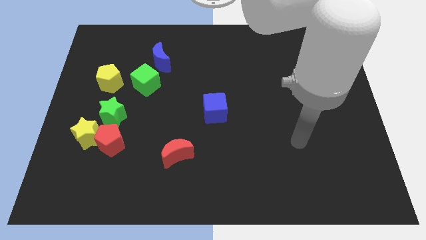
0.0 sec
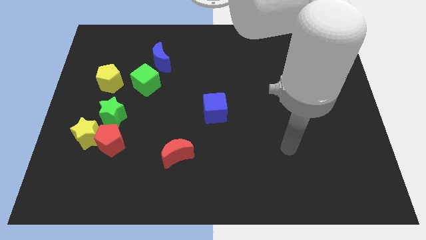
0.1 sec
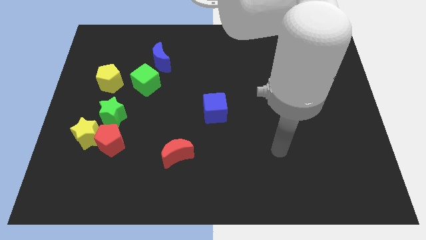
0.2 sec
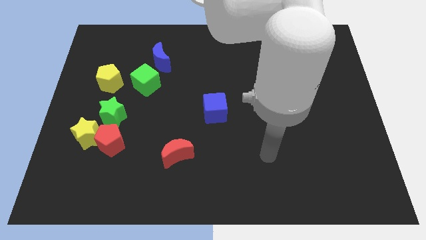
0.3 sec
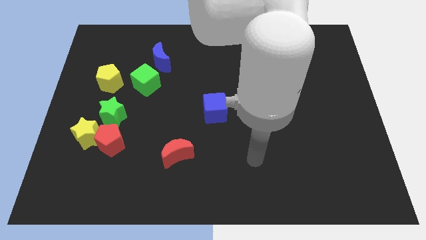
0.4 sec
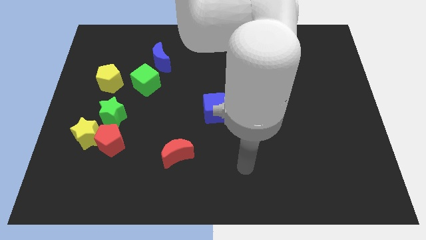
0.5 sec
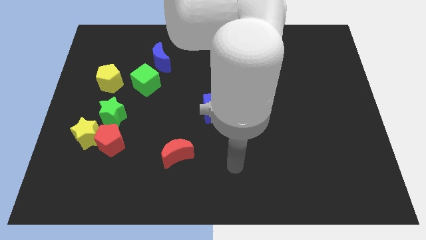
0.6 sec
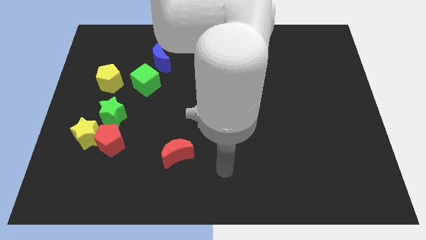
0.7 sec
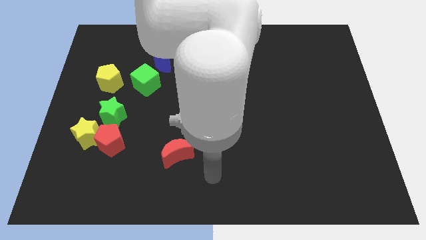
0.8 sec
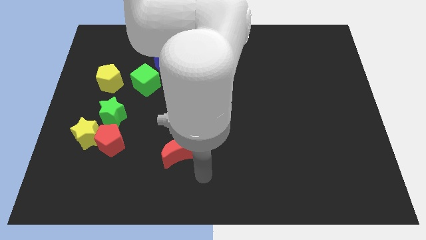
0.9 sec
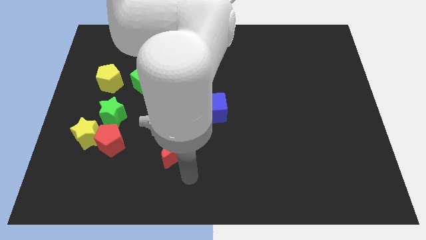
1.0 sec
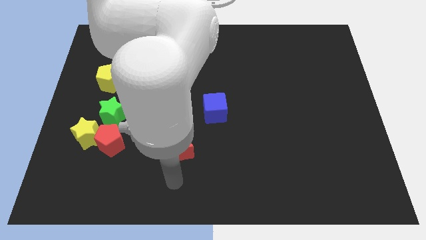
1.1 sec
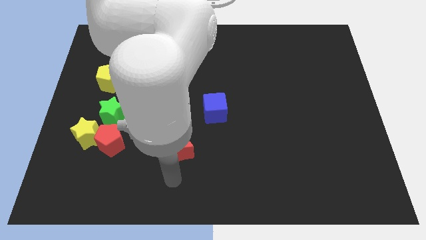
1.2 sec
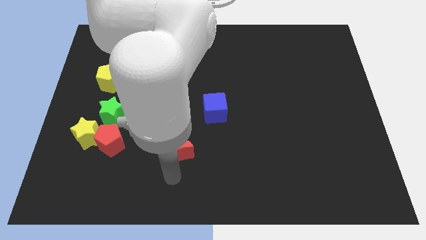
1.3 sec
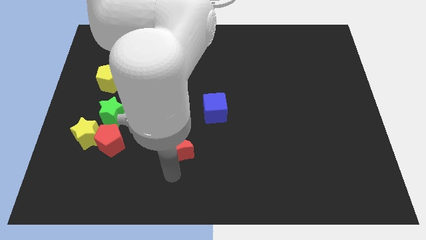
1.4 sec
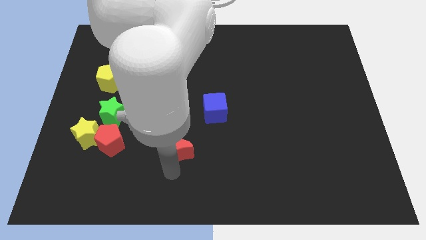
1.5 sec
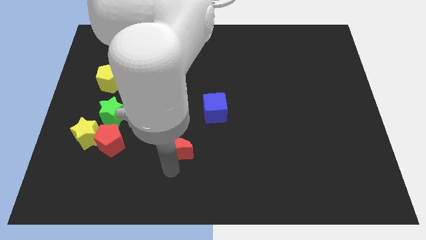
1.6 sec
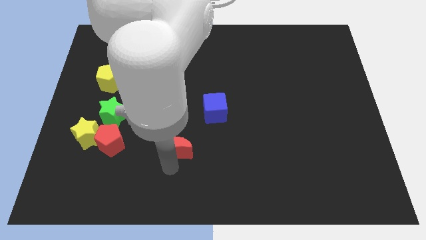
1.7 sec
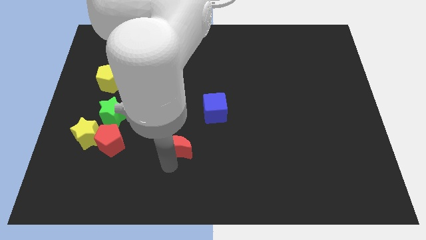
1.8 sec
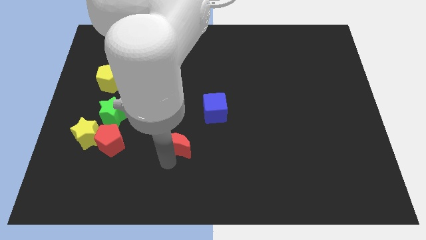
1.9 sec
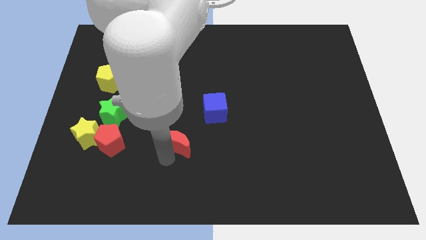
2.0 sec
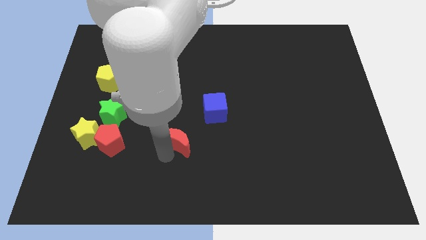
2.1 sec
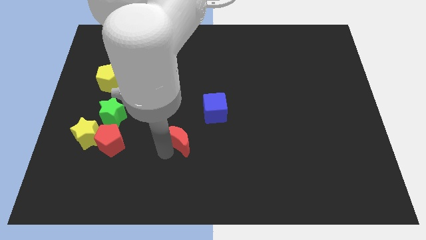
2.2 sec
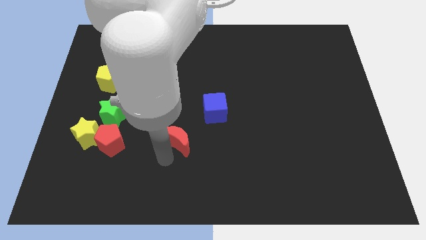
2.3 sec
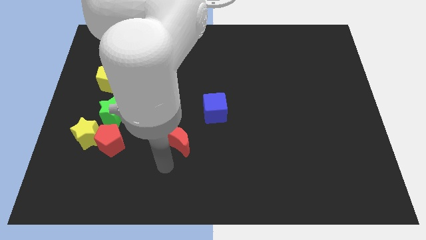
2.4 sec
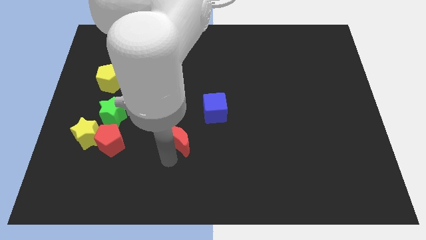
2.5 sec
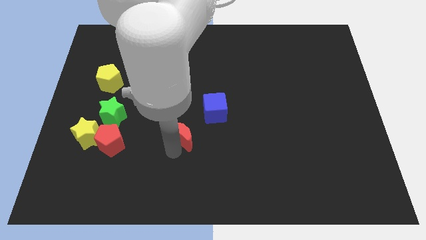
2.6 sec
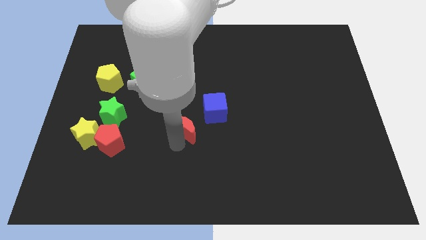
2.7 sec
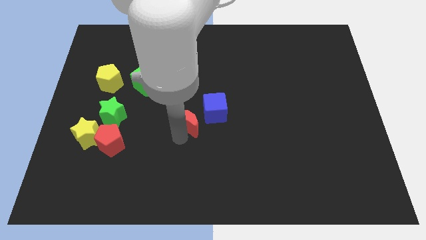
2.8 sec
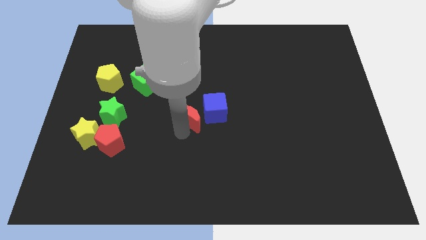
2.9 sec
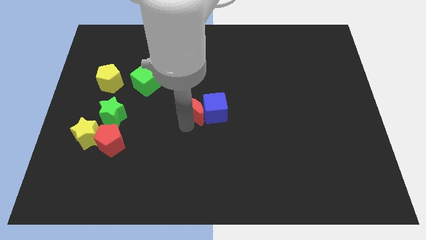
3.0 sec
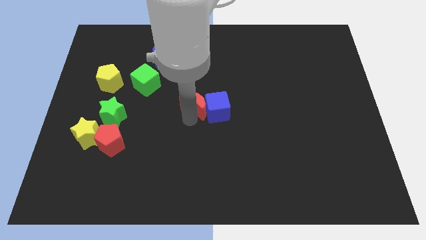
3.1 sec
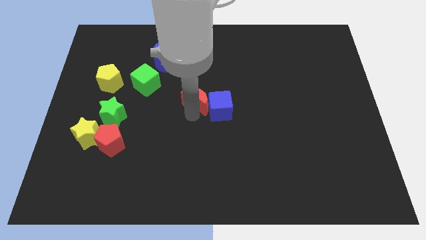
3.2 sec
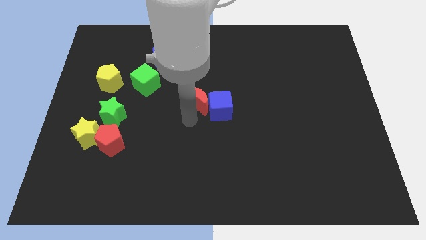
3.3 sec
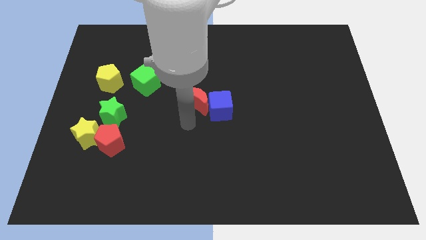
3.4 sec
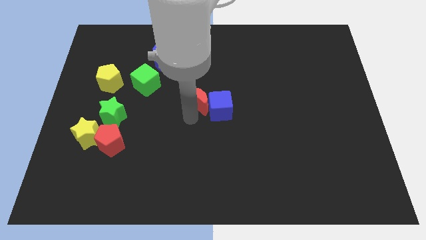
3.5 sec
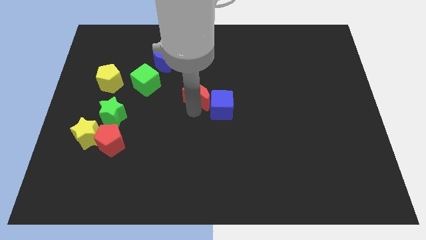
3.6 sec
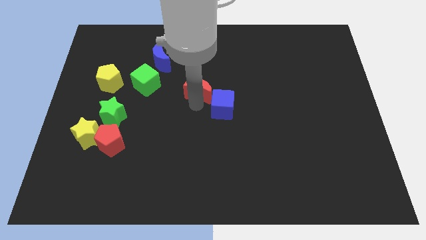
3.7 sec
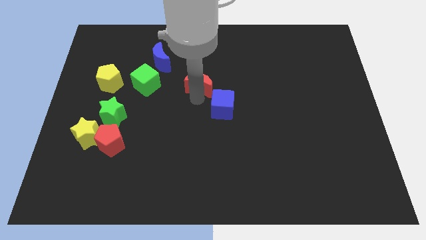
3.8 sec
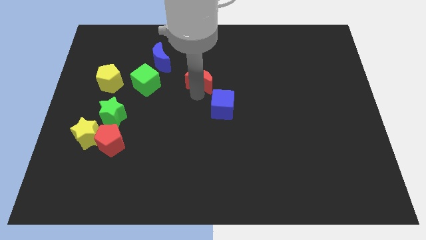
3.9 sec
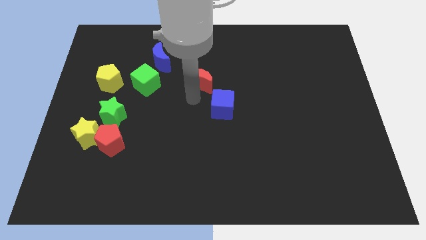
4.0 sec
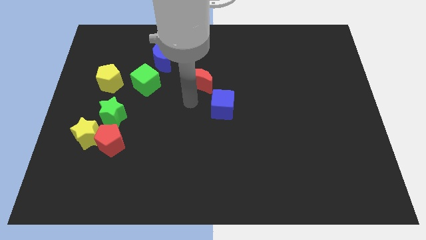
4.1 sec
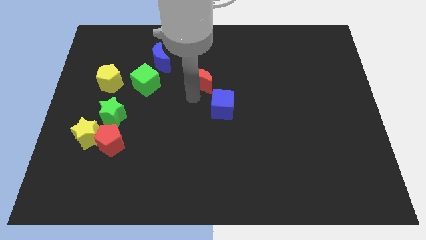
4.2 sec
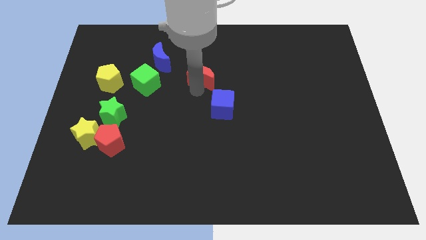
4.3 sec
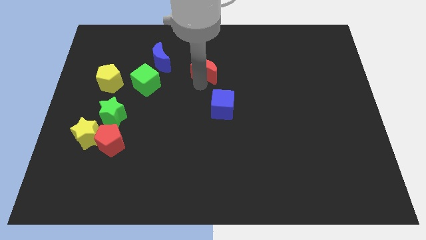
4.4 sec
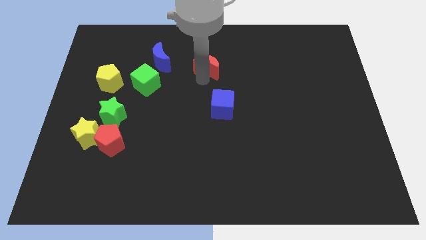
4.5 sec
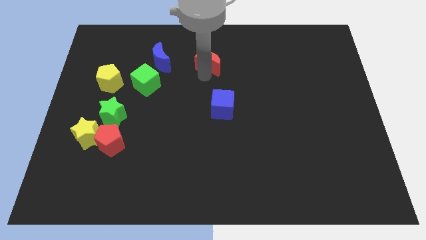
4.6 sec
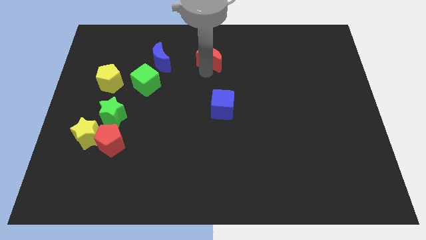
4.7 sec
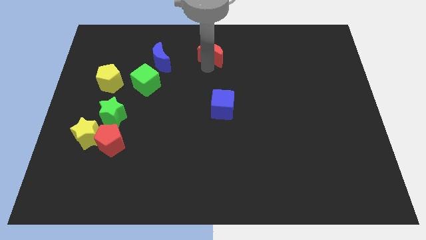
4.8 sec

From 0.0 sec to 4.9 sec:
push the red moon to the towards your base

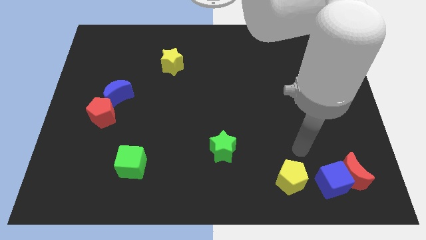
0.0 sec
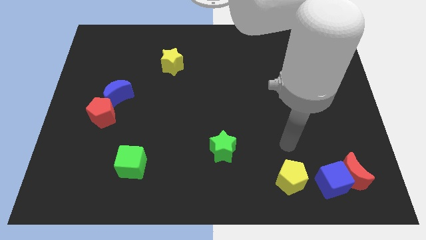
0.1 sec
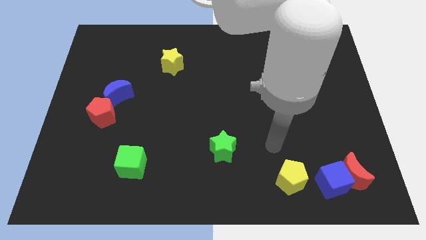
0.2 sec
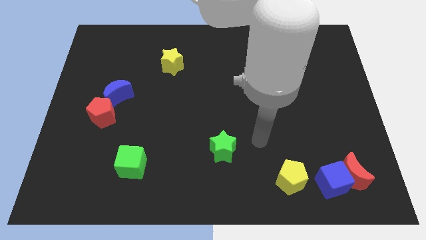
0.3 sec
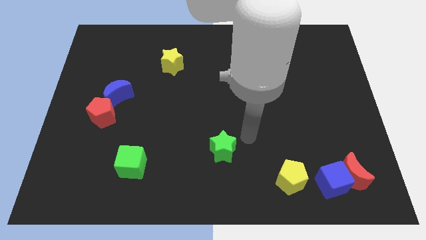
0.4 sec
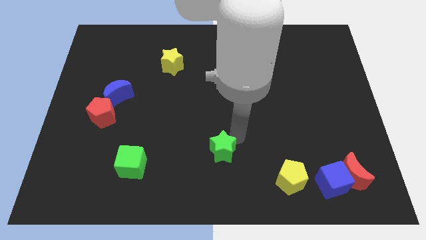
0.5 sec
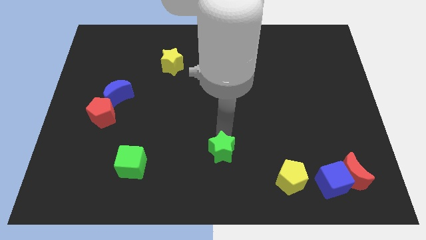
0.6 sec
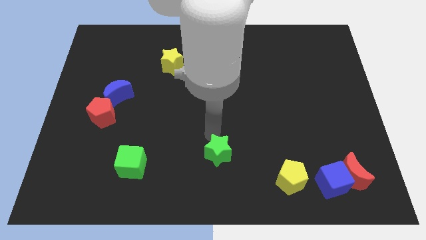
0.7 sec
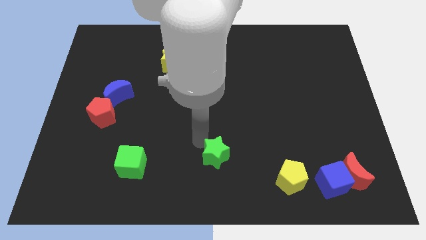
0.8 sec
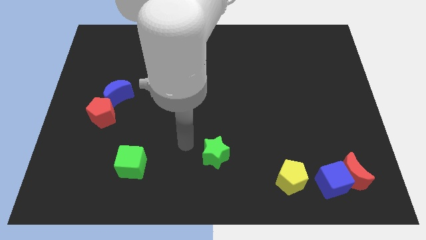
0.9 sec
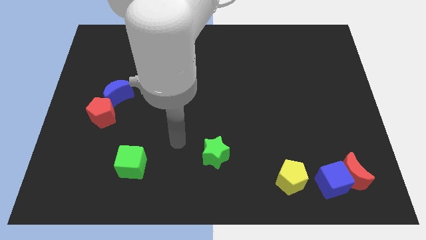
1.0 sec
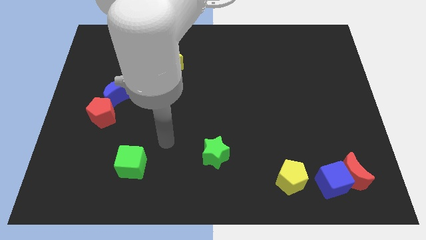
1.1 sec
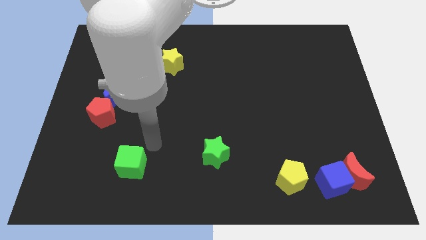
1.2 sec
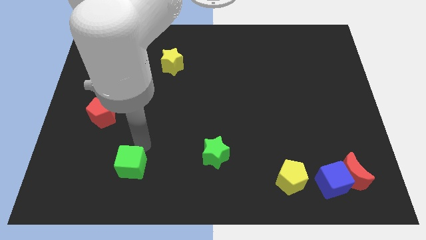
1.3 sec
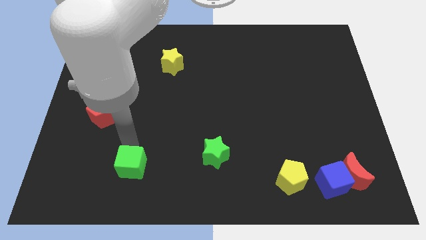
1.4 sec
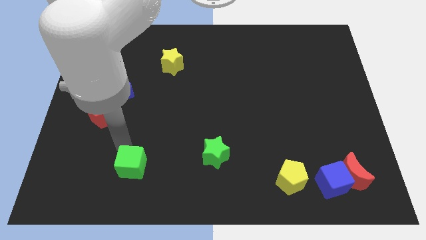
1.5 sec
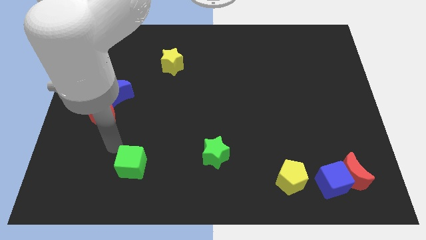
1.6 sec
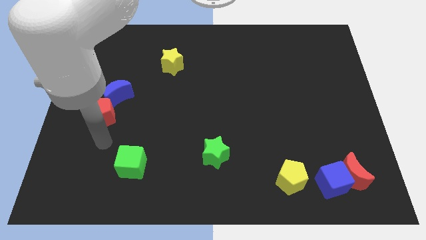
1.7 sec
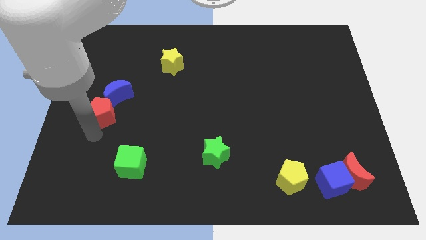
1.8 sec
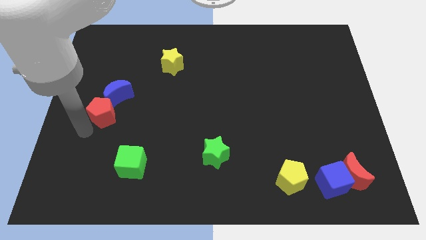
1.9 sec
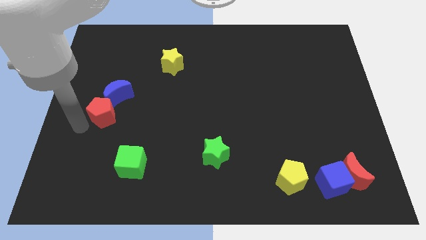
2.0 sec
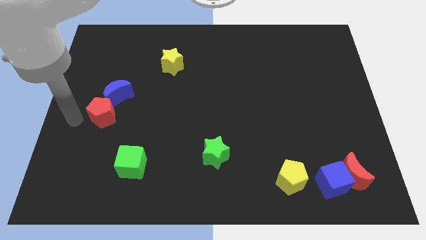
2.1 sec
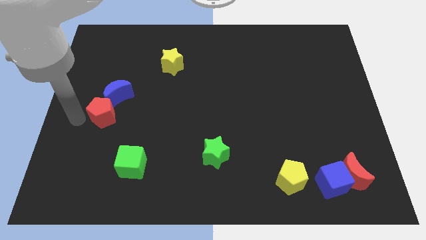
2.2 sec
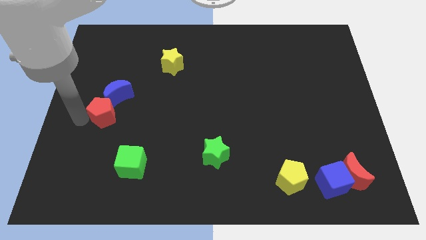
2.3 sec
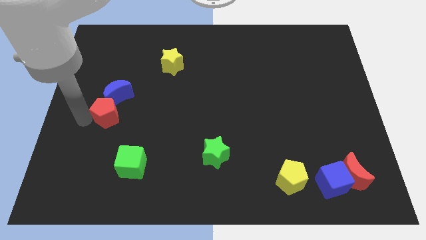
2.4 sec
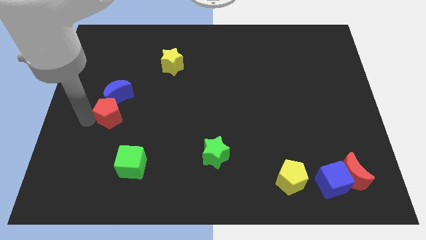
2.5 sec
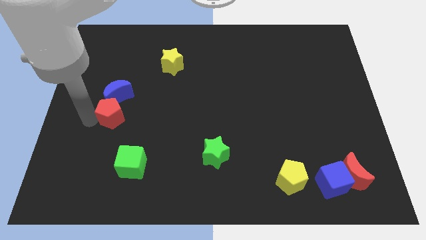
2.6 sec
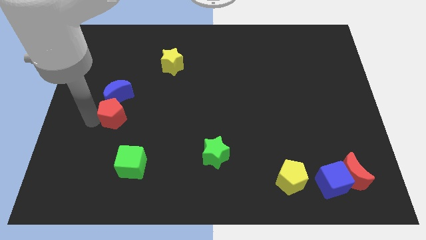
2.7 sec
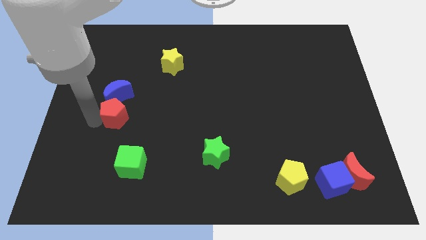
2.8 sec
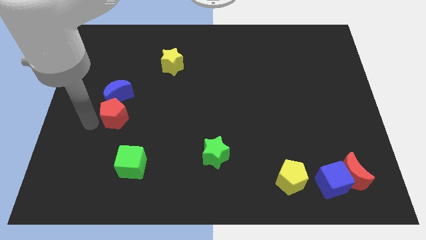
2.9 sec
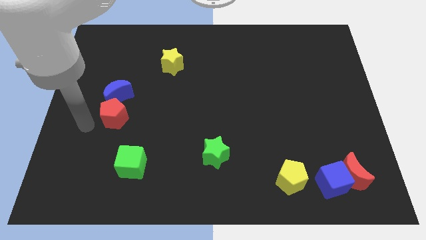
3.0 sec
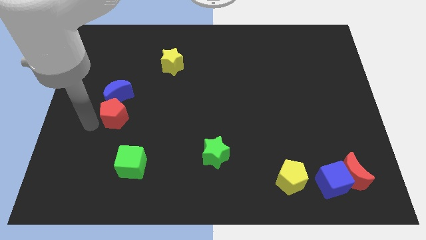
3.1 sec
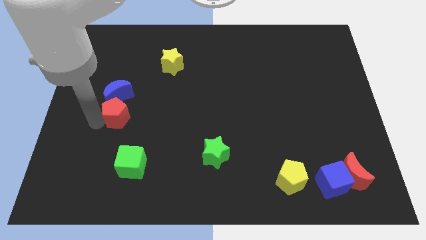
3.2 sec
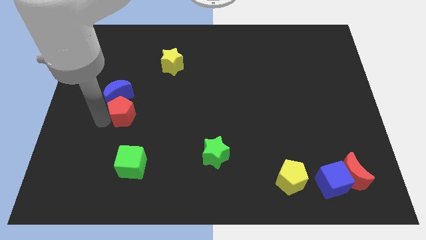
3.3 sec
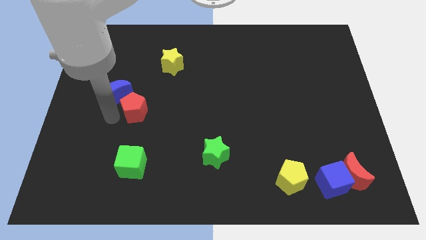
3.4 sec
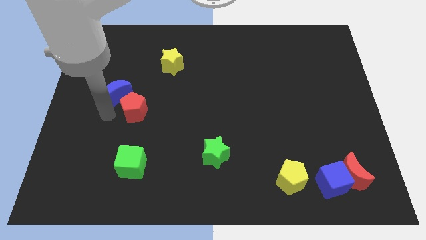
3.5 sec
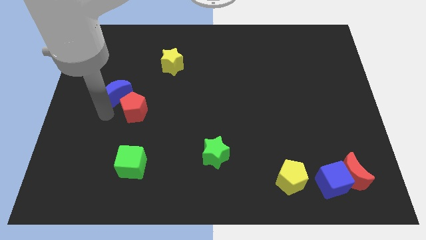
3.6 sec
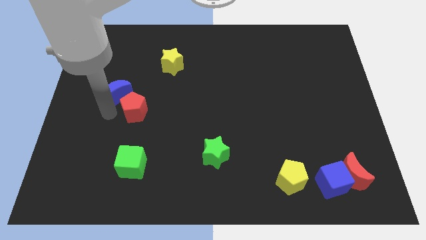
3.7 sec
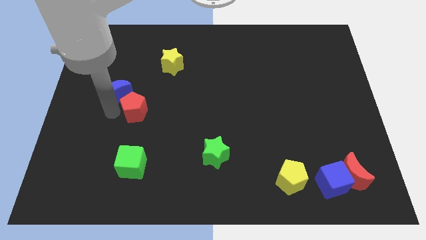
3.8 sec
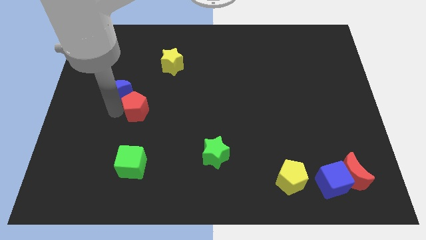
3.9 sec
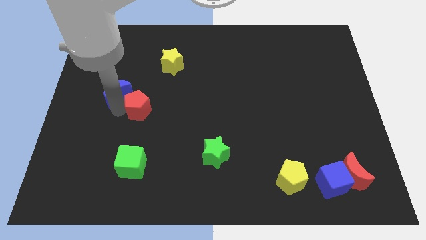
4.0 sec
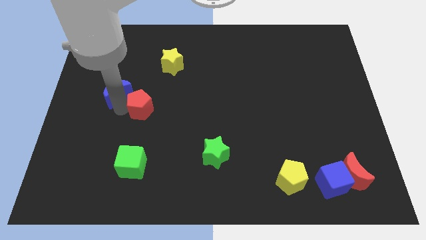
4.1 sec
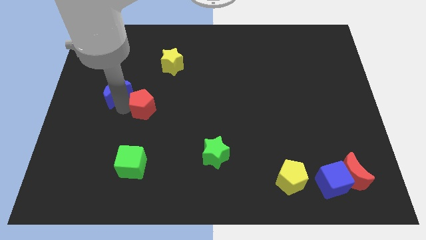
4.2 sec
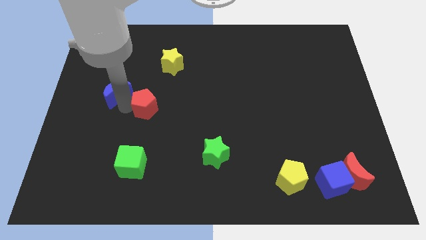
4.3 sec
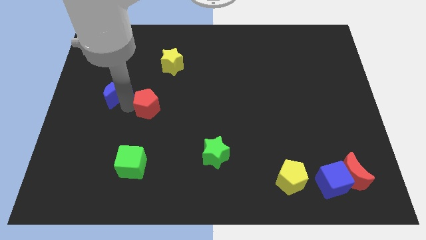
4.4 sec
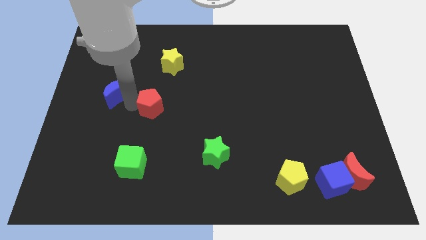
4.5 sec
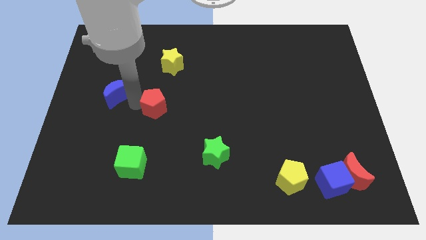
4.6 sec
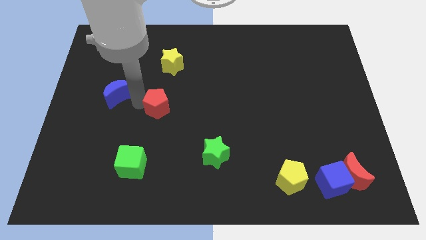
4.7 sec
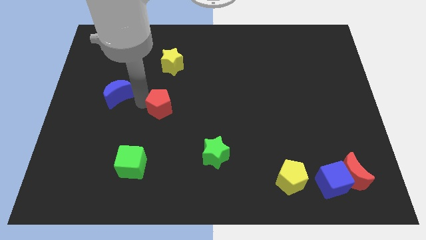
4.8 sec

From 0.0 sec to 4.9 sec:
move the red pentagon to the center of the board
